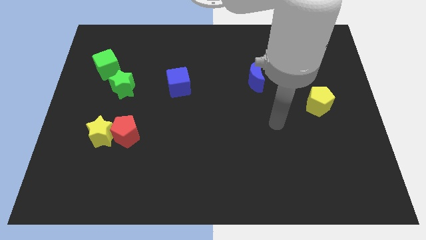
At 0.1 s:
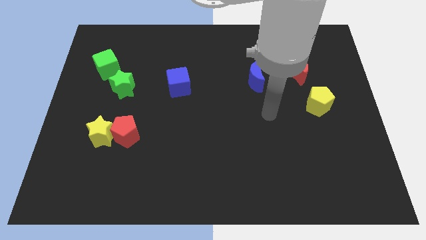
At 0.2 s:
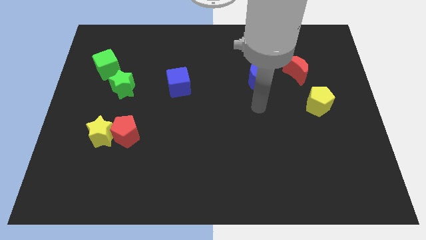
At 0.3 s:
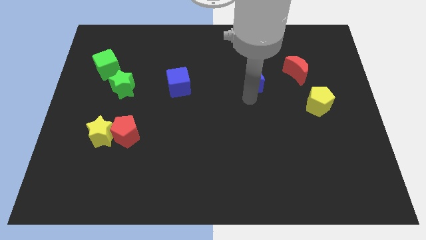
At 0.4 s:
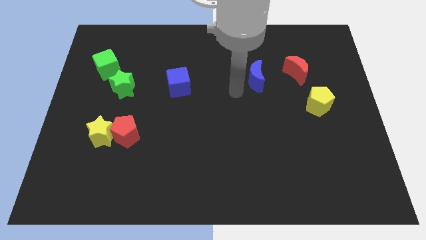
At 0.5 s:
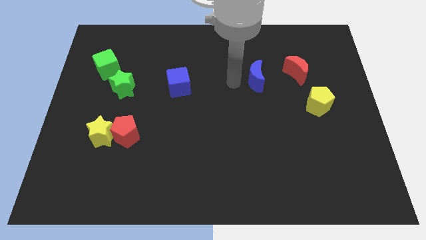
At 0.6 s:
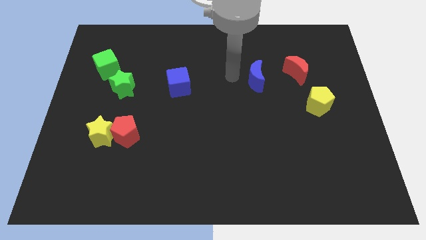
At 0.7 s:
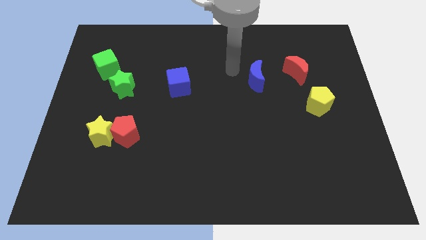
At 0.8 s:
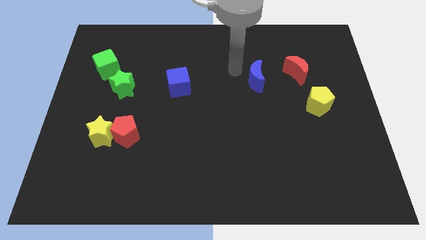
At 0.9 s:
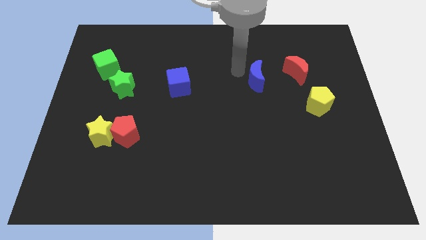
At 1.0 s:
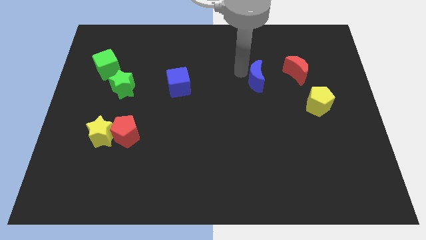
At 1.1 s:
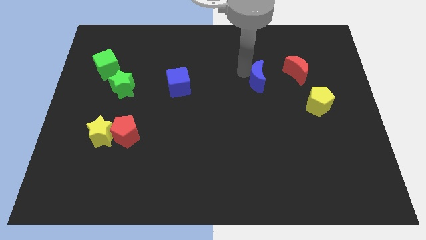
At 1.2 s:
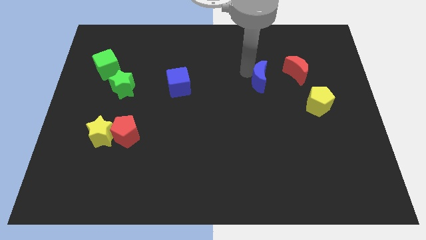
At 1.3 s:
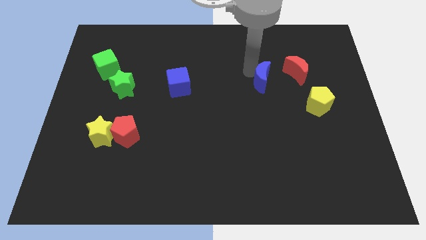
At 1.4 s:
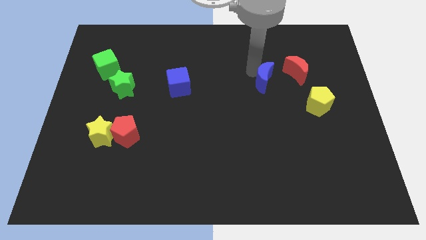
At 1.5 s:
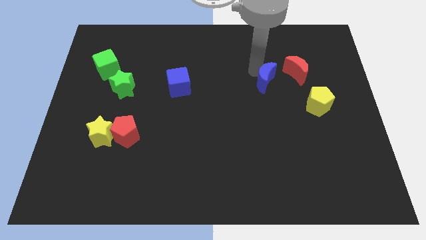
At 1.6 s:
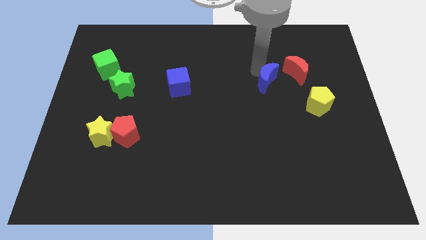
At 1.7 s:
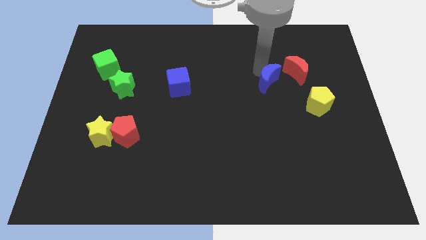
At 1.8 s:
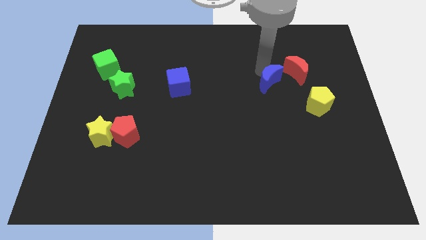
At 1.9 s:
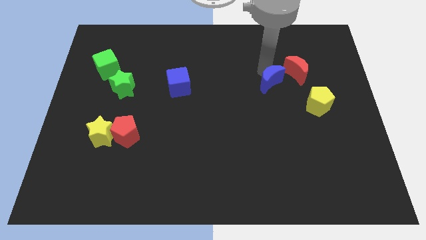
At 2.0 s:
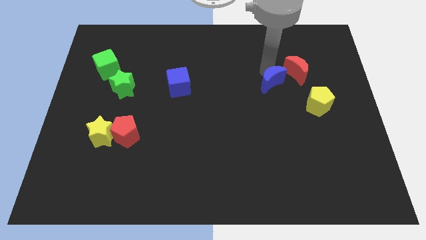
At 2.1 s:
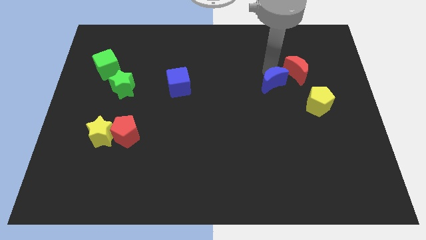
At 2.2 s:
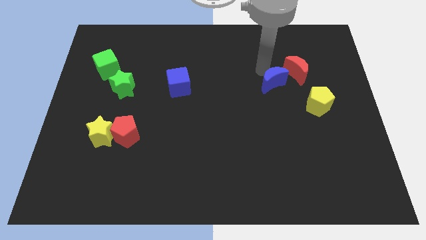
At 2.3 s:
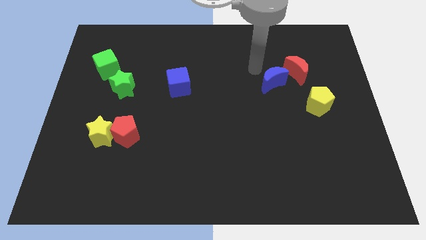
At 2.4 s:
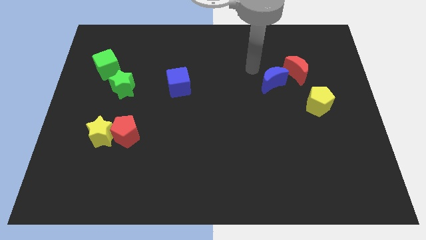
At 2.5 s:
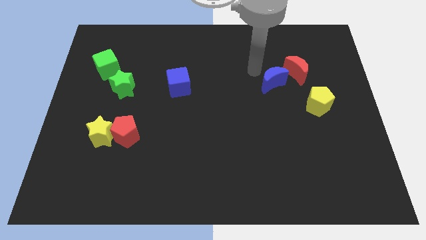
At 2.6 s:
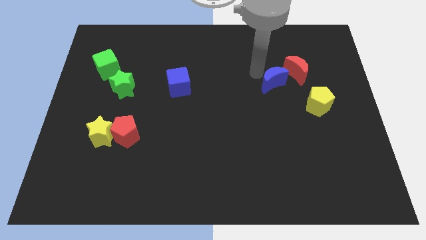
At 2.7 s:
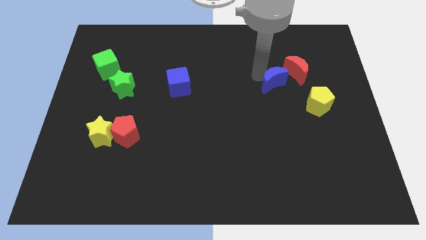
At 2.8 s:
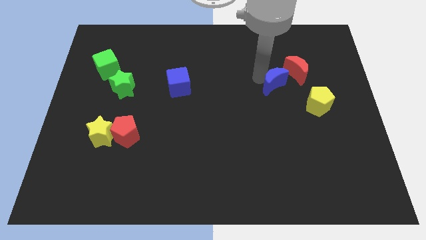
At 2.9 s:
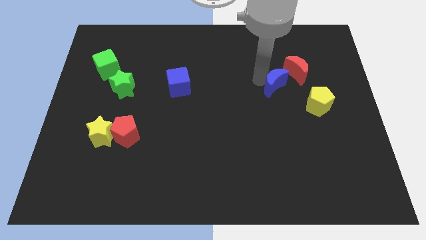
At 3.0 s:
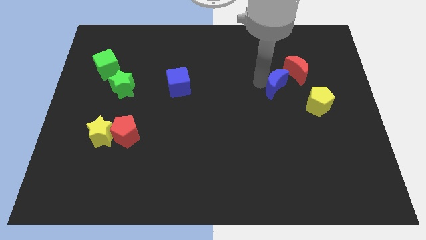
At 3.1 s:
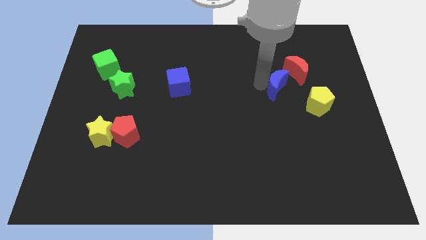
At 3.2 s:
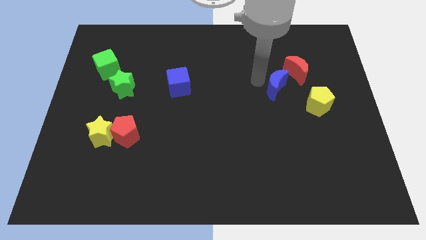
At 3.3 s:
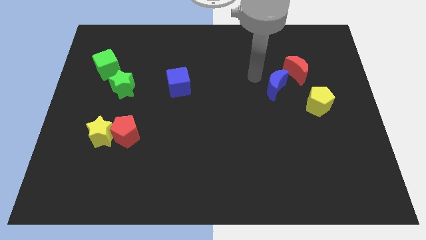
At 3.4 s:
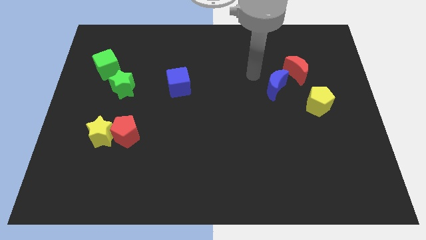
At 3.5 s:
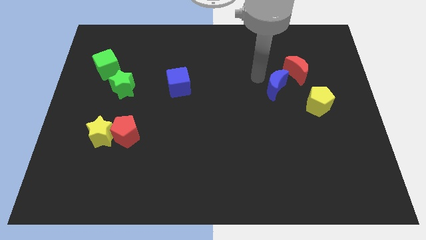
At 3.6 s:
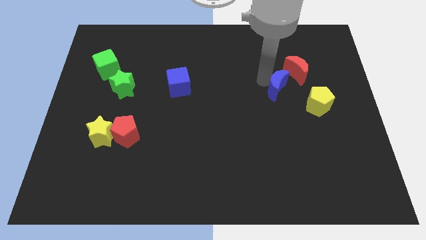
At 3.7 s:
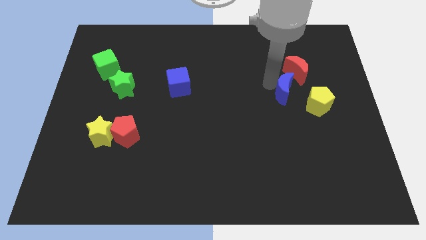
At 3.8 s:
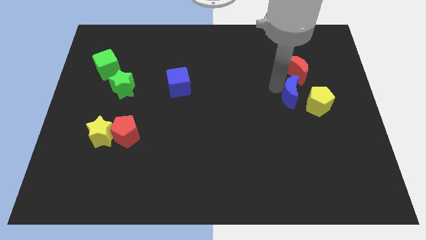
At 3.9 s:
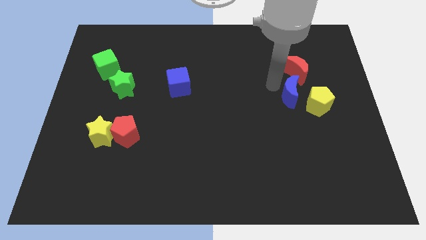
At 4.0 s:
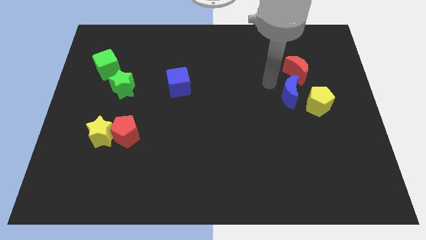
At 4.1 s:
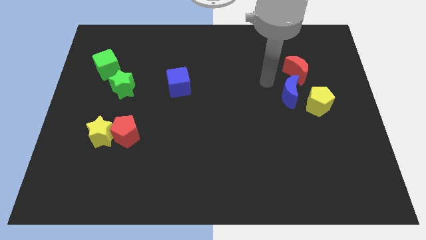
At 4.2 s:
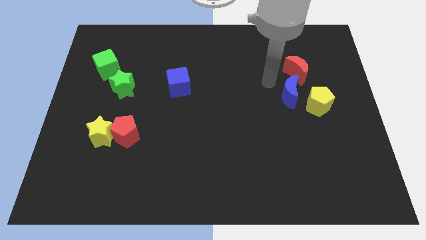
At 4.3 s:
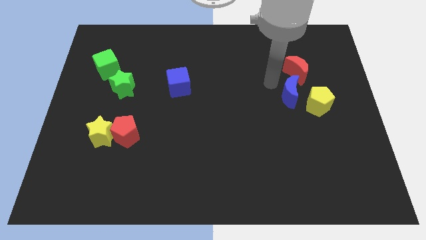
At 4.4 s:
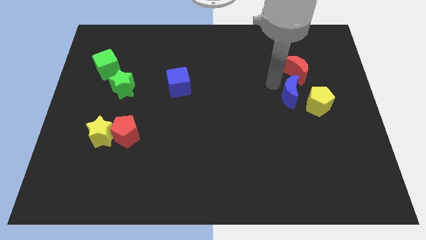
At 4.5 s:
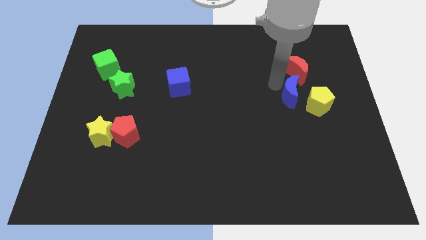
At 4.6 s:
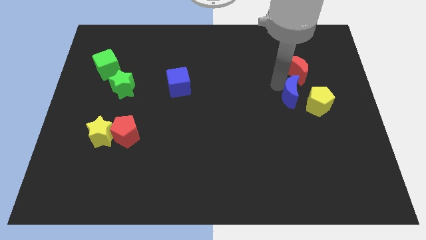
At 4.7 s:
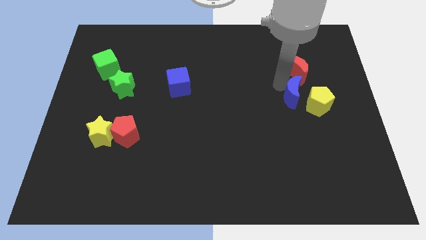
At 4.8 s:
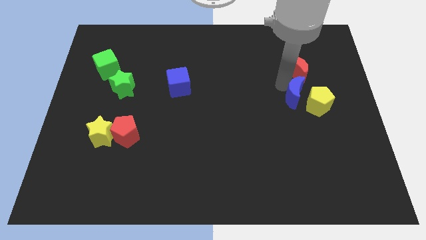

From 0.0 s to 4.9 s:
put the blue moon to the yellow pentagon

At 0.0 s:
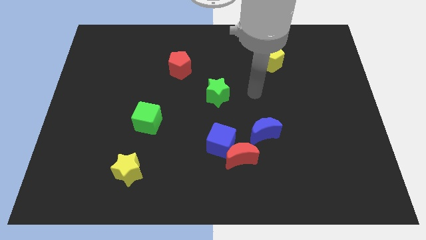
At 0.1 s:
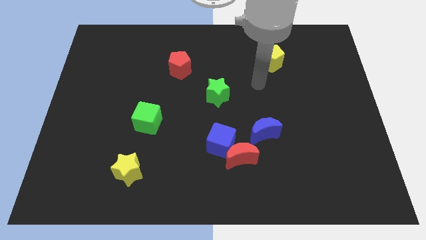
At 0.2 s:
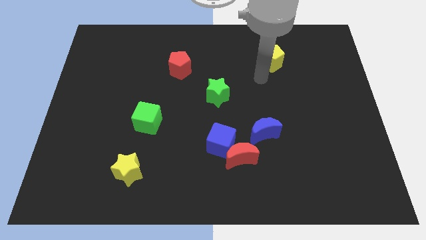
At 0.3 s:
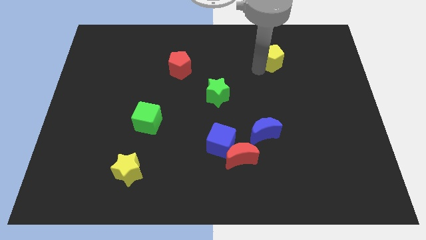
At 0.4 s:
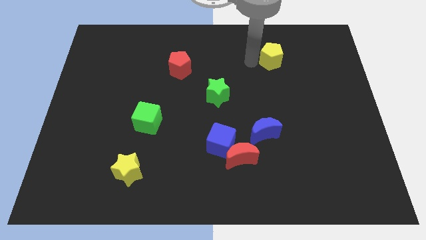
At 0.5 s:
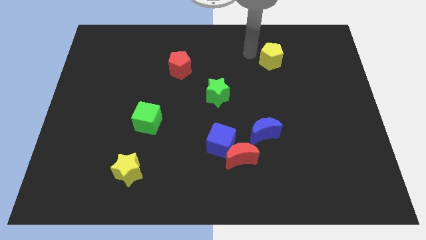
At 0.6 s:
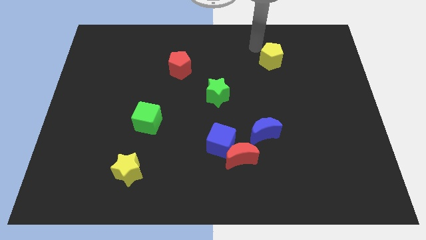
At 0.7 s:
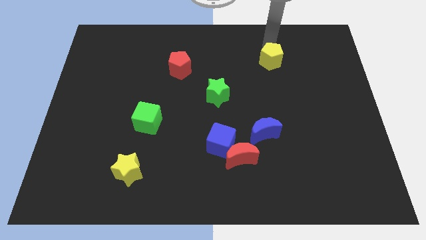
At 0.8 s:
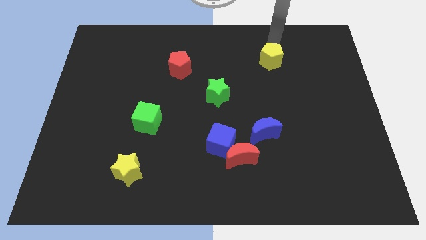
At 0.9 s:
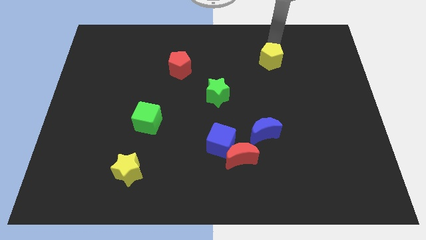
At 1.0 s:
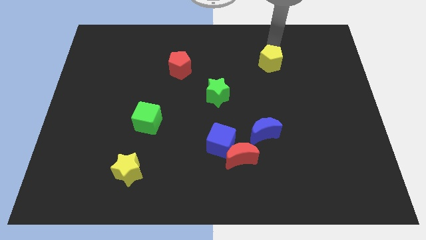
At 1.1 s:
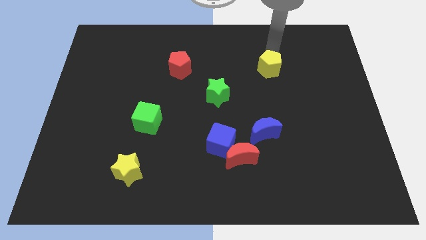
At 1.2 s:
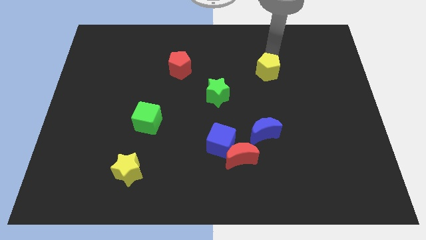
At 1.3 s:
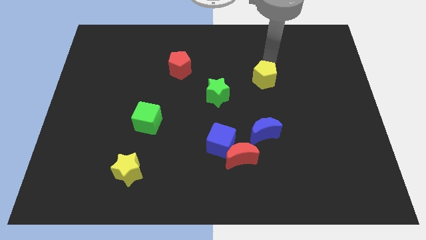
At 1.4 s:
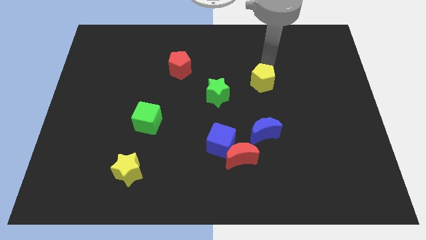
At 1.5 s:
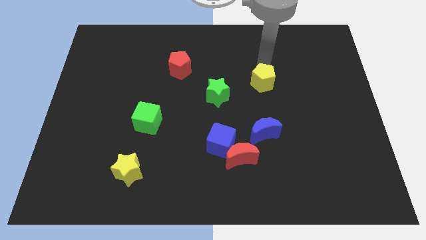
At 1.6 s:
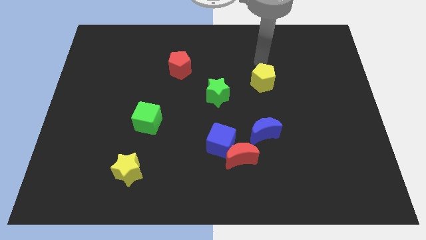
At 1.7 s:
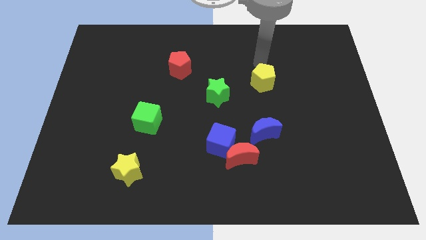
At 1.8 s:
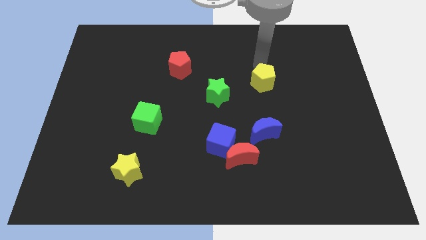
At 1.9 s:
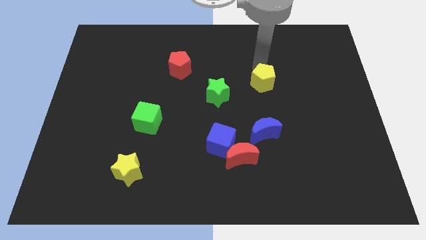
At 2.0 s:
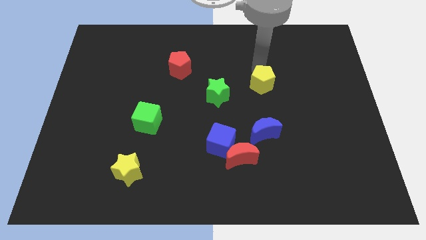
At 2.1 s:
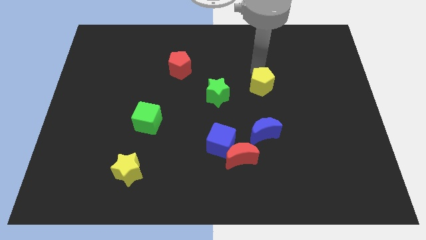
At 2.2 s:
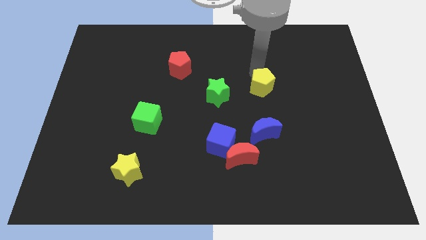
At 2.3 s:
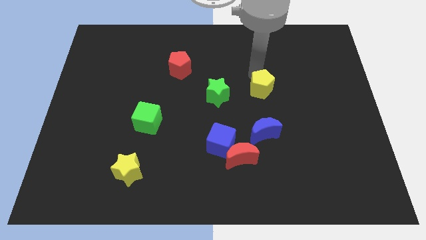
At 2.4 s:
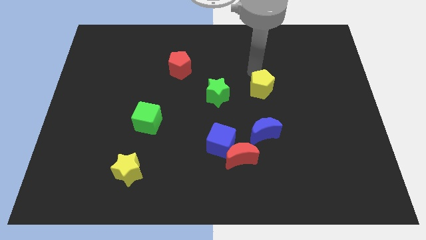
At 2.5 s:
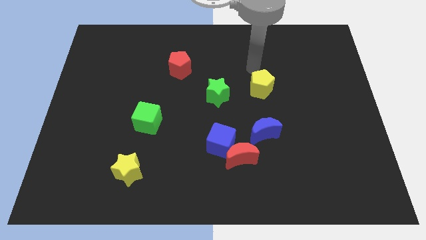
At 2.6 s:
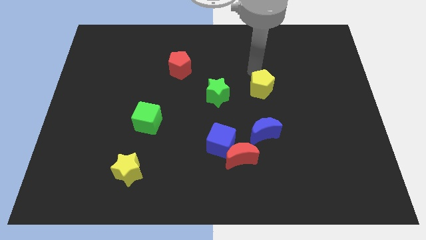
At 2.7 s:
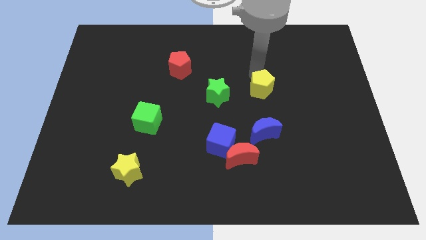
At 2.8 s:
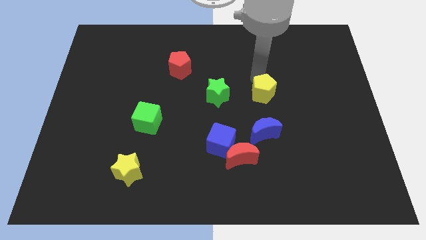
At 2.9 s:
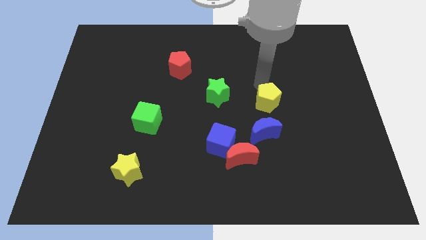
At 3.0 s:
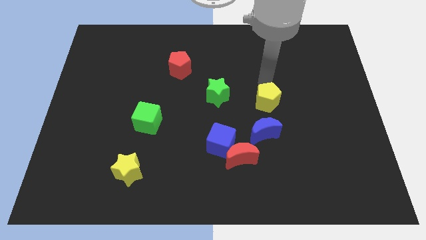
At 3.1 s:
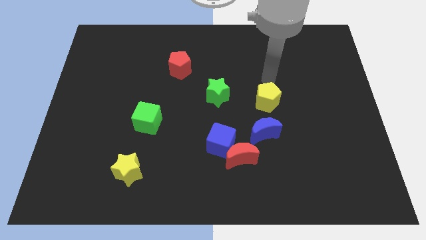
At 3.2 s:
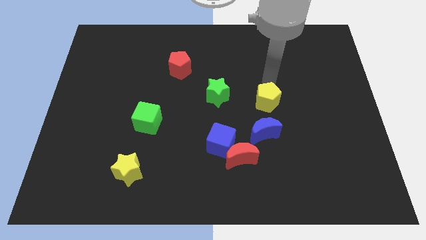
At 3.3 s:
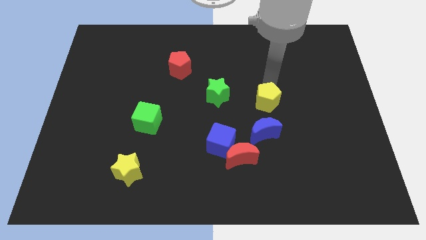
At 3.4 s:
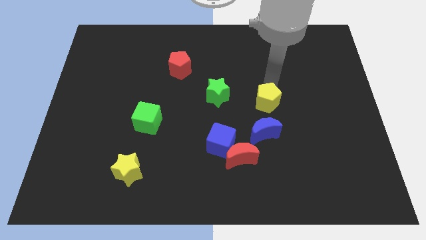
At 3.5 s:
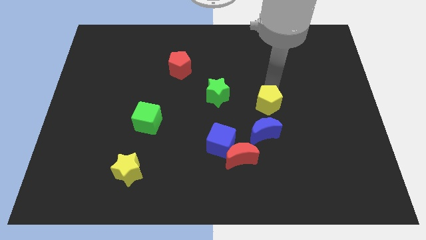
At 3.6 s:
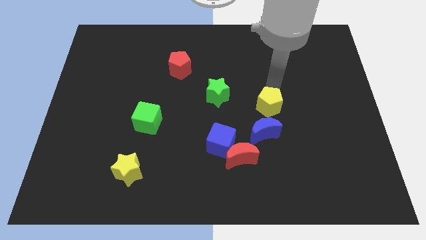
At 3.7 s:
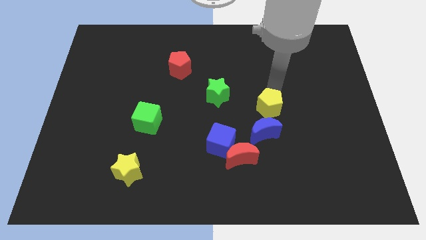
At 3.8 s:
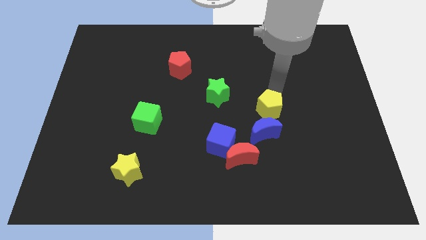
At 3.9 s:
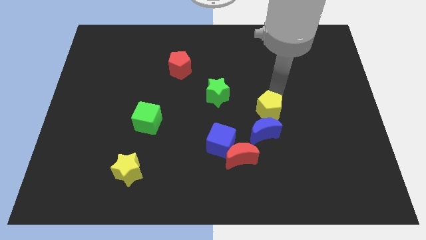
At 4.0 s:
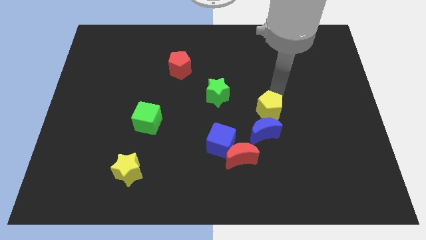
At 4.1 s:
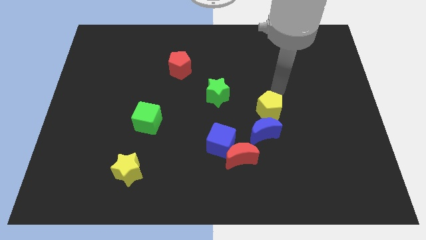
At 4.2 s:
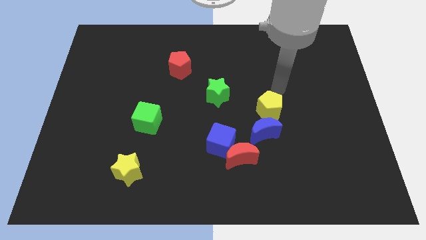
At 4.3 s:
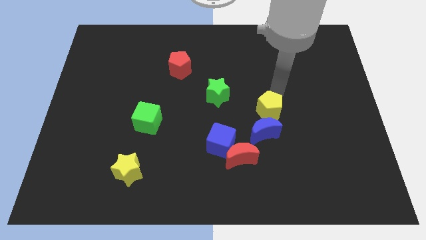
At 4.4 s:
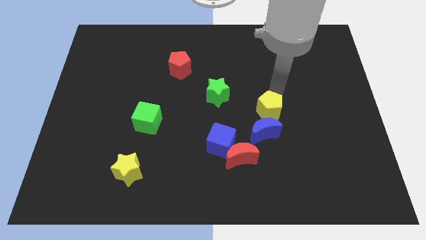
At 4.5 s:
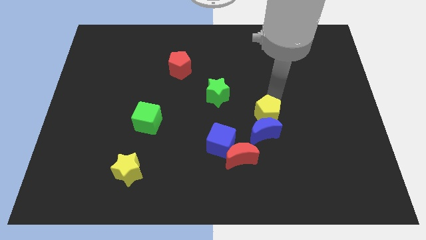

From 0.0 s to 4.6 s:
put the yellow pentagon close to the blue moon
